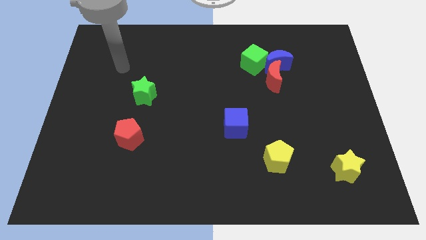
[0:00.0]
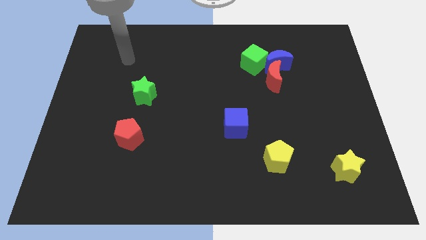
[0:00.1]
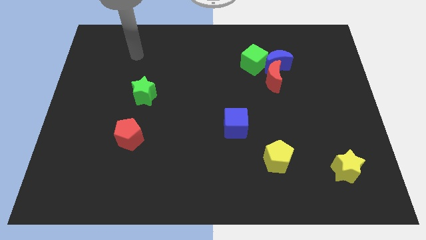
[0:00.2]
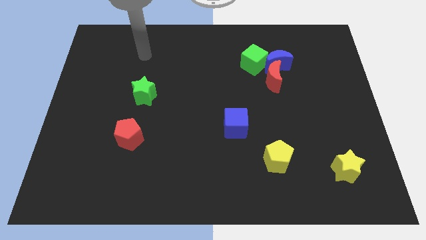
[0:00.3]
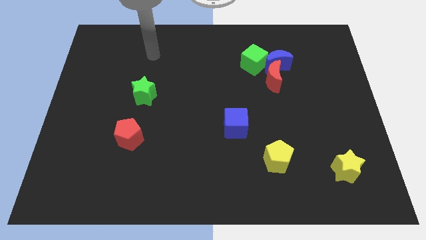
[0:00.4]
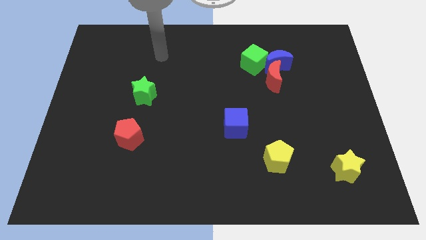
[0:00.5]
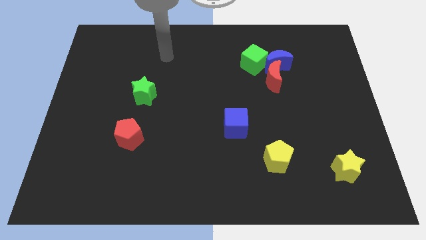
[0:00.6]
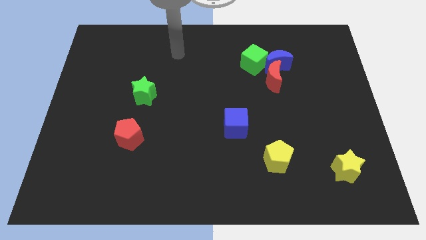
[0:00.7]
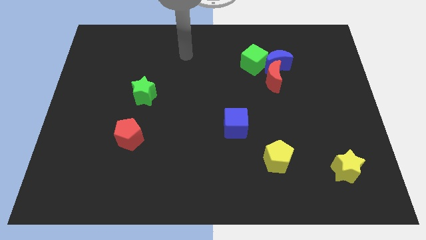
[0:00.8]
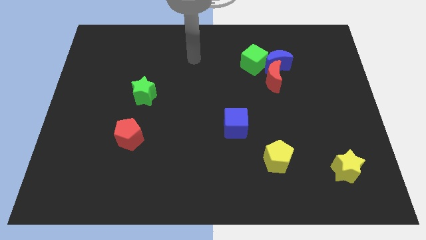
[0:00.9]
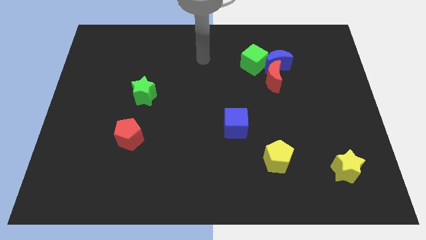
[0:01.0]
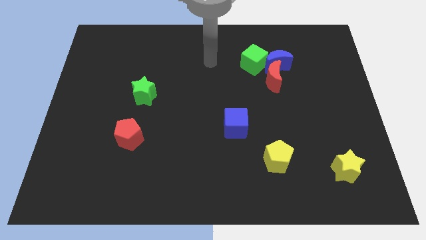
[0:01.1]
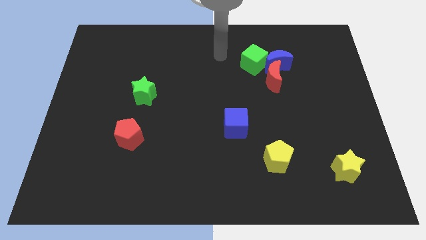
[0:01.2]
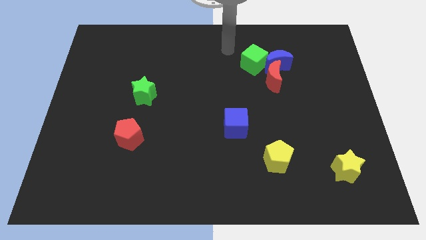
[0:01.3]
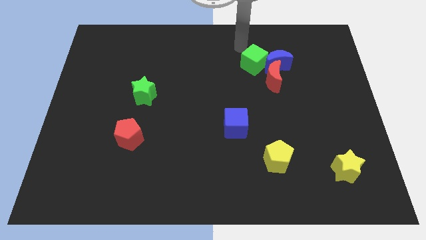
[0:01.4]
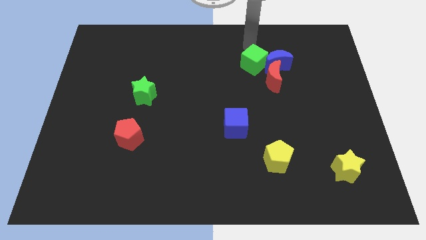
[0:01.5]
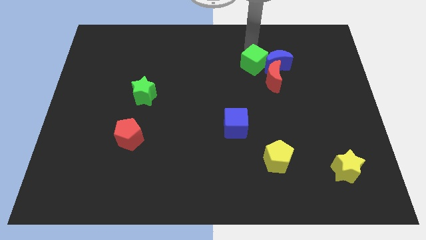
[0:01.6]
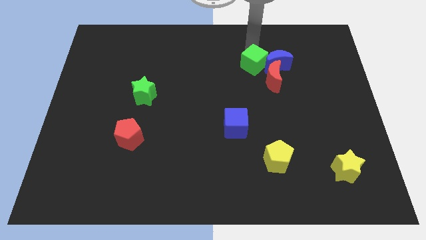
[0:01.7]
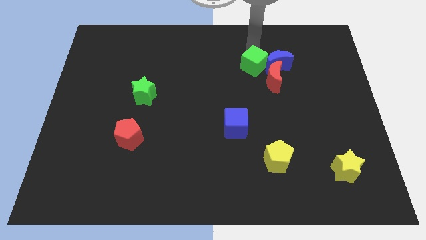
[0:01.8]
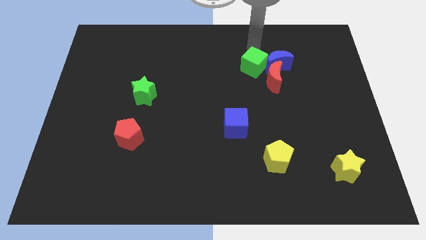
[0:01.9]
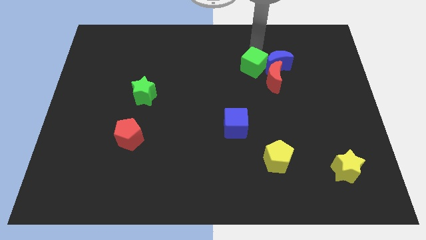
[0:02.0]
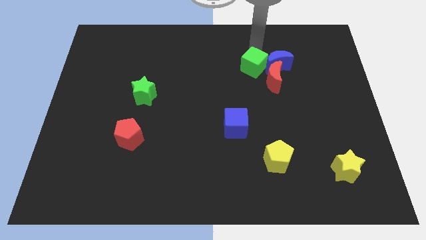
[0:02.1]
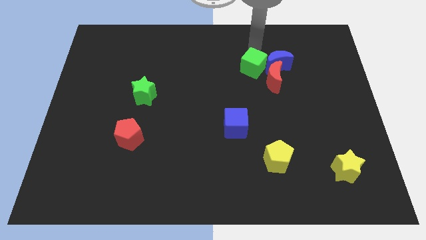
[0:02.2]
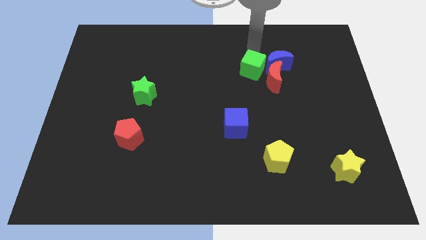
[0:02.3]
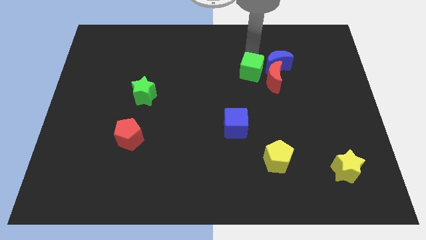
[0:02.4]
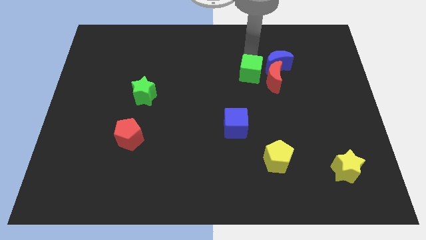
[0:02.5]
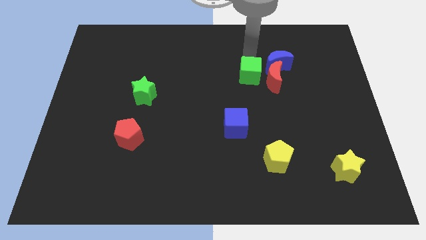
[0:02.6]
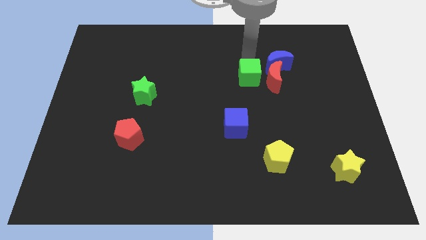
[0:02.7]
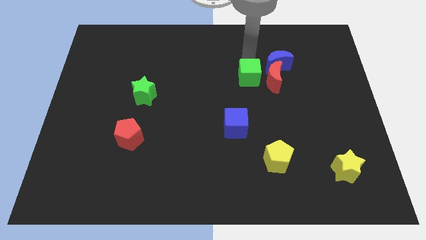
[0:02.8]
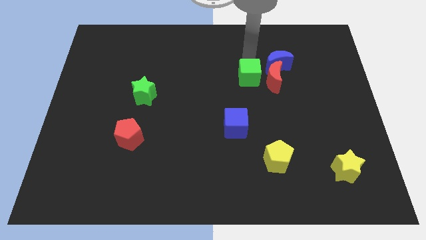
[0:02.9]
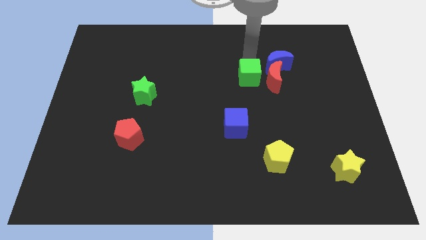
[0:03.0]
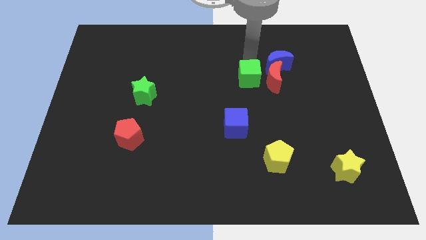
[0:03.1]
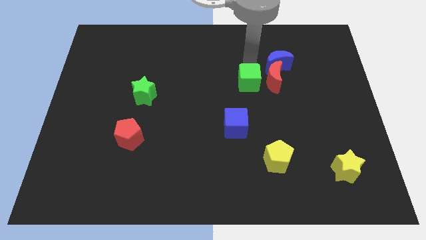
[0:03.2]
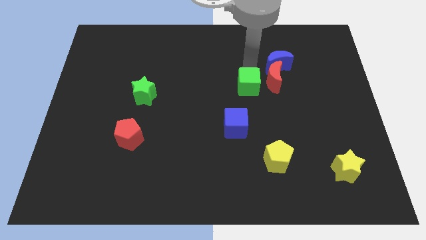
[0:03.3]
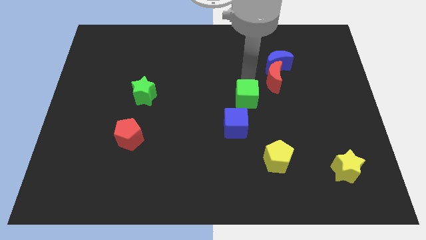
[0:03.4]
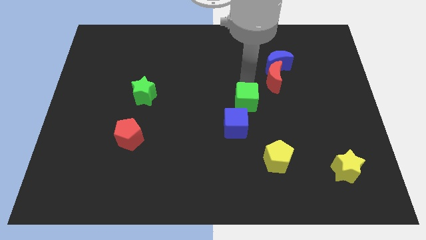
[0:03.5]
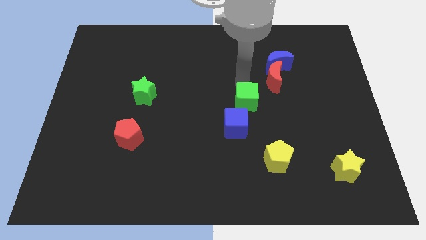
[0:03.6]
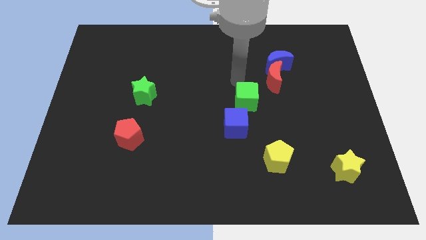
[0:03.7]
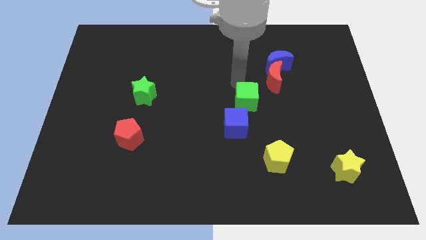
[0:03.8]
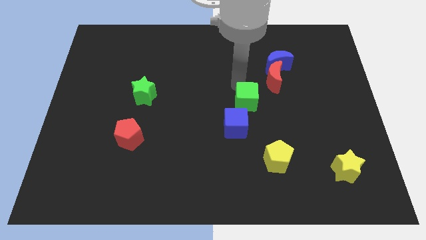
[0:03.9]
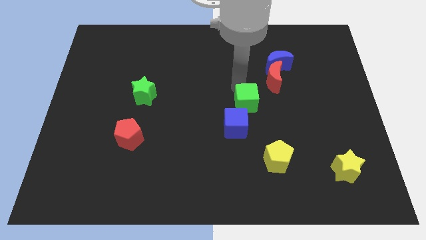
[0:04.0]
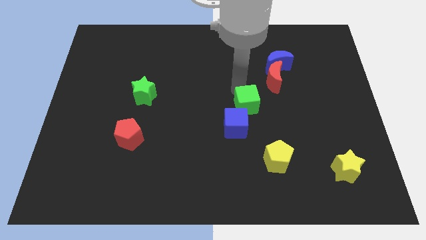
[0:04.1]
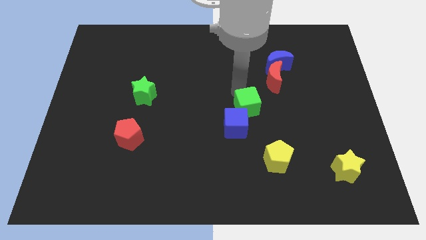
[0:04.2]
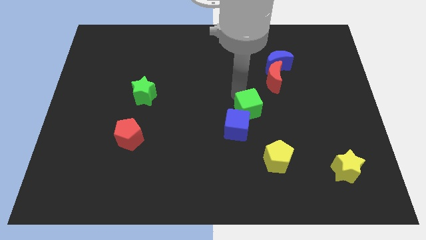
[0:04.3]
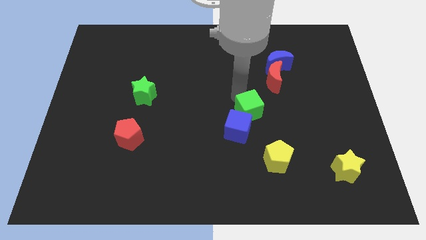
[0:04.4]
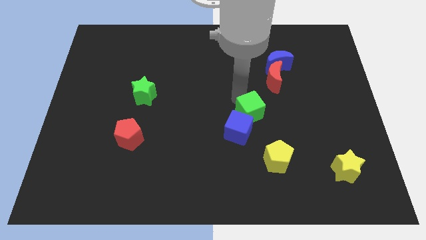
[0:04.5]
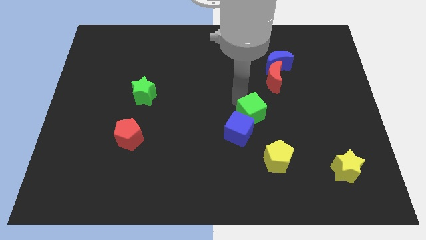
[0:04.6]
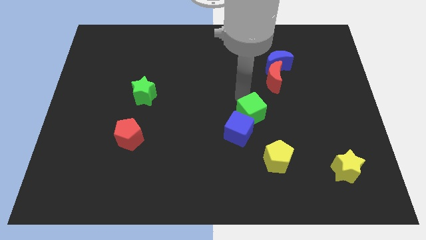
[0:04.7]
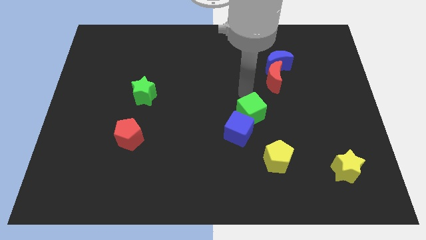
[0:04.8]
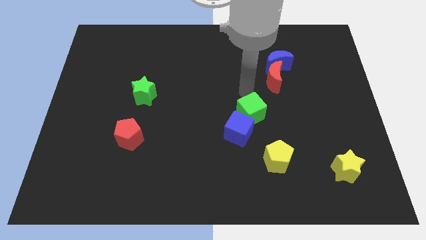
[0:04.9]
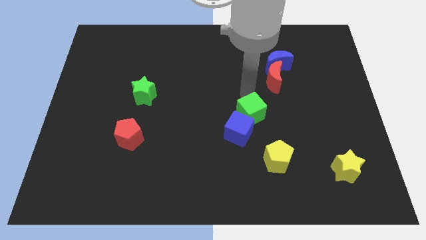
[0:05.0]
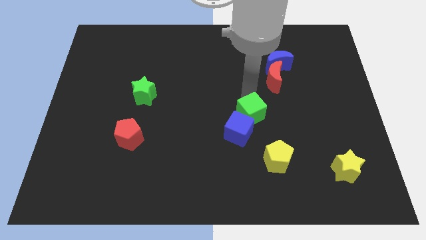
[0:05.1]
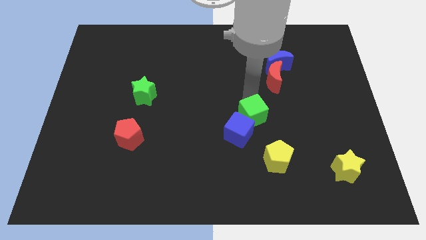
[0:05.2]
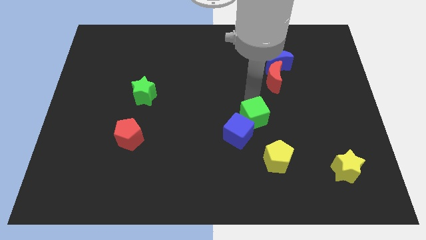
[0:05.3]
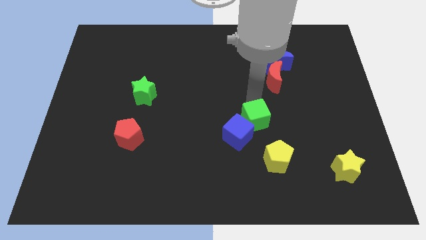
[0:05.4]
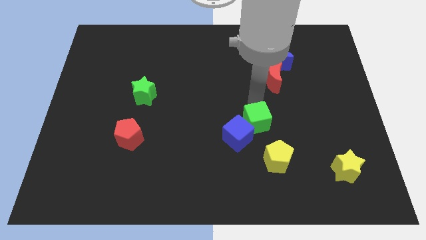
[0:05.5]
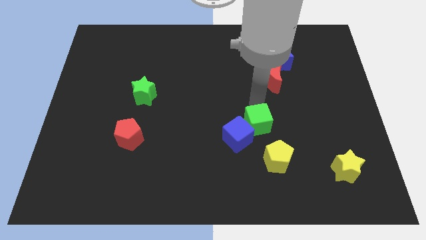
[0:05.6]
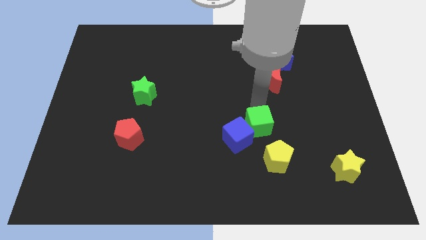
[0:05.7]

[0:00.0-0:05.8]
move the green cube down

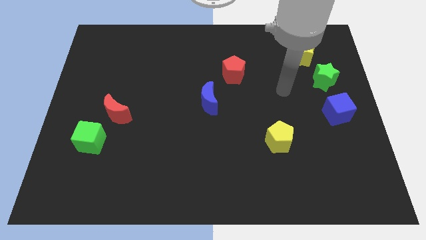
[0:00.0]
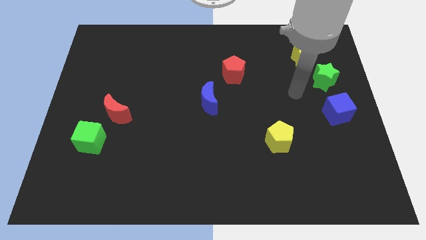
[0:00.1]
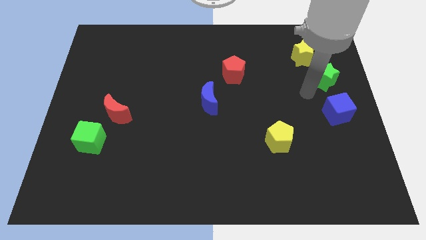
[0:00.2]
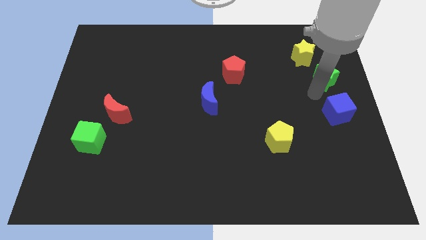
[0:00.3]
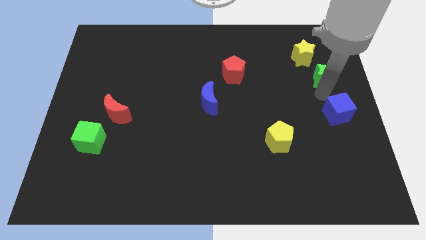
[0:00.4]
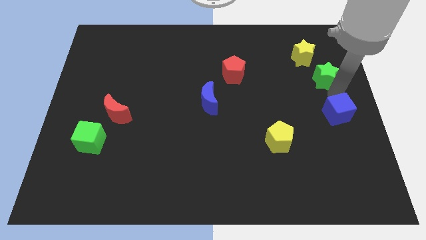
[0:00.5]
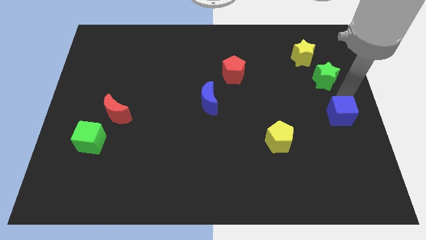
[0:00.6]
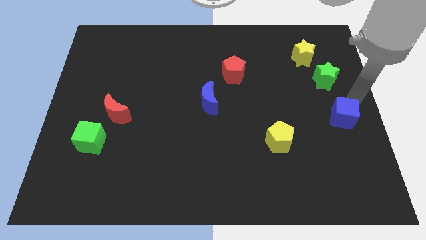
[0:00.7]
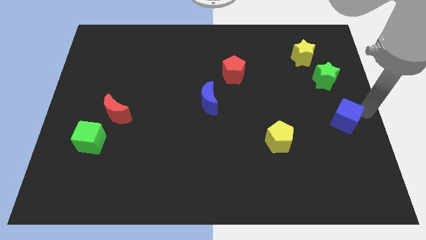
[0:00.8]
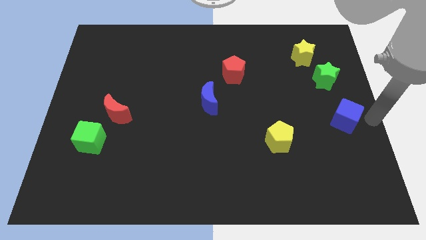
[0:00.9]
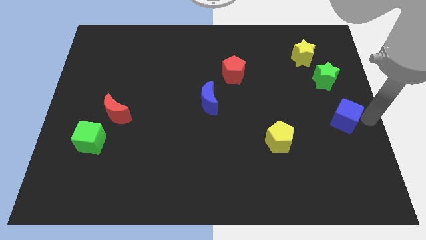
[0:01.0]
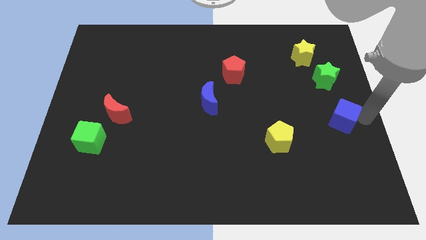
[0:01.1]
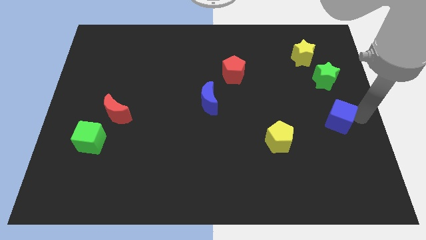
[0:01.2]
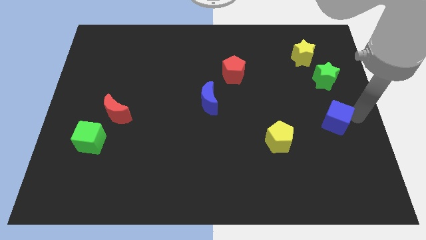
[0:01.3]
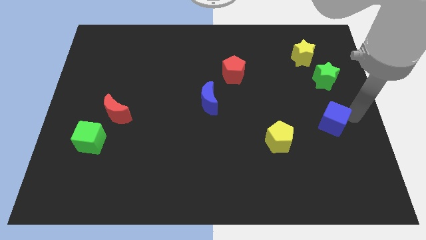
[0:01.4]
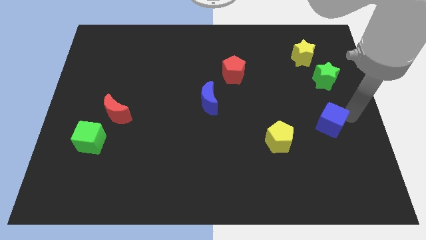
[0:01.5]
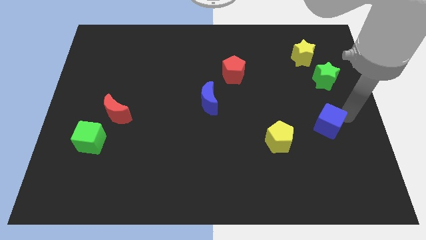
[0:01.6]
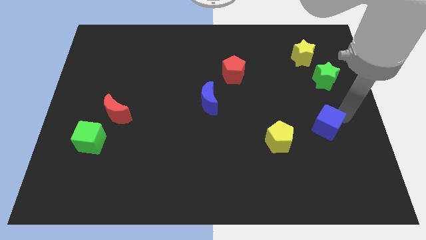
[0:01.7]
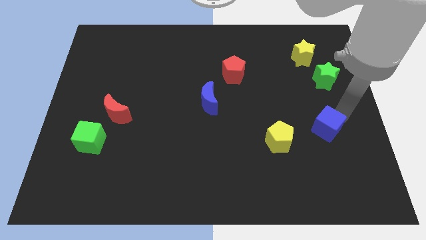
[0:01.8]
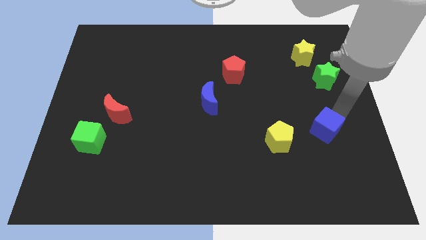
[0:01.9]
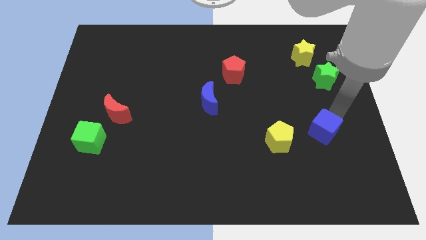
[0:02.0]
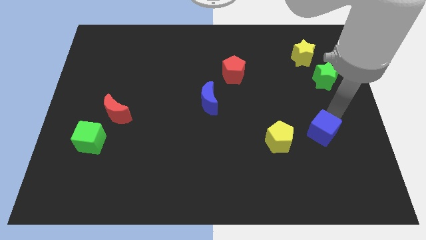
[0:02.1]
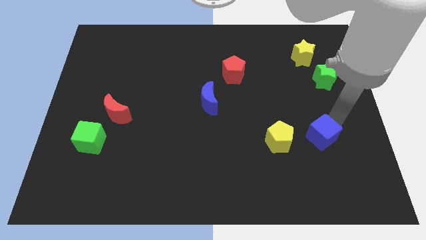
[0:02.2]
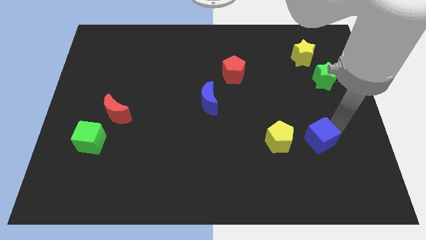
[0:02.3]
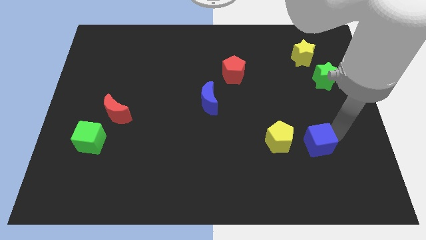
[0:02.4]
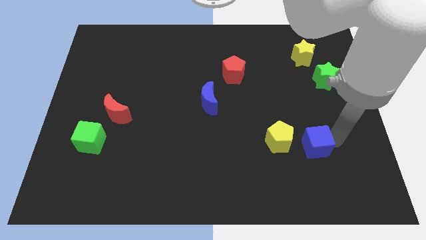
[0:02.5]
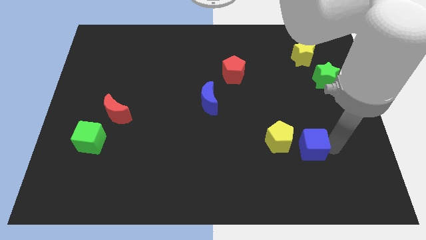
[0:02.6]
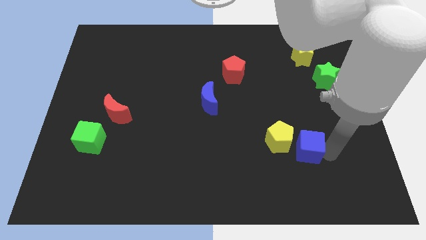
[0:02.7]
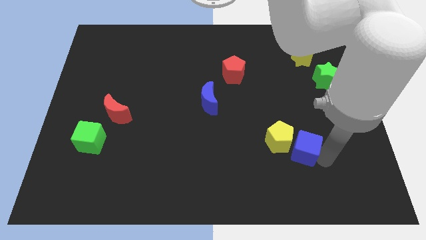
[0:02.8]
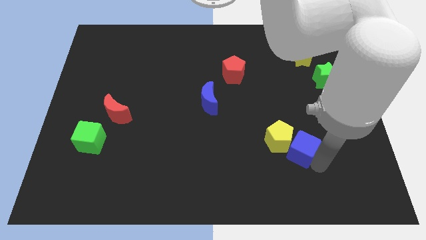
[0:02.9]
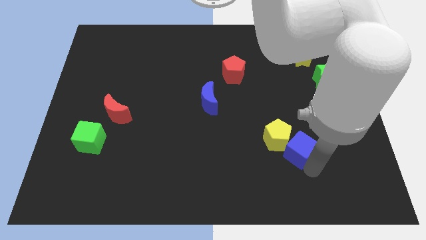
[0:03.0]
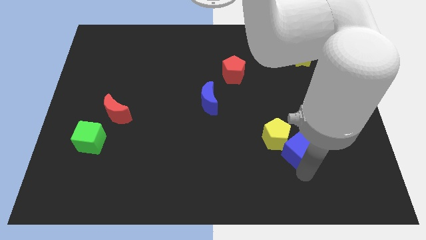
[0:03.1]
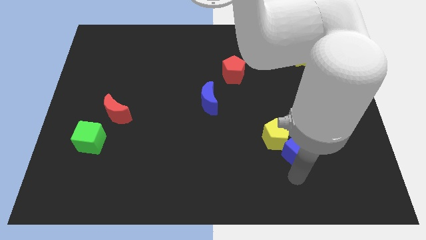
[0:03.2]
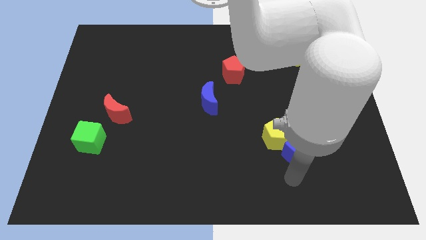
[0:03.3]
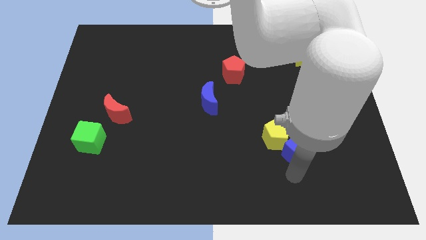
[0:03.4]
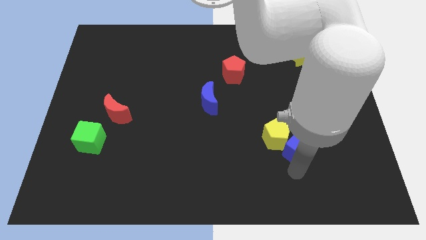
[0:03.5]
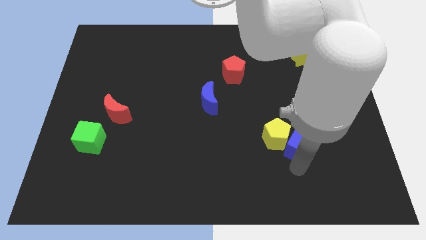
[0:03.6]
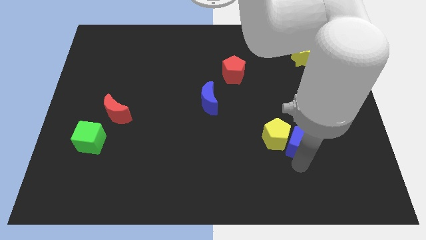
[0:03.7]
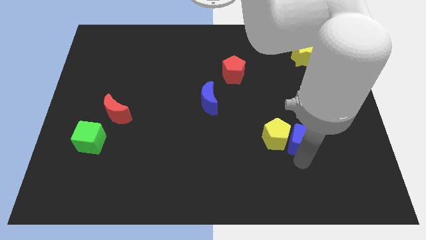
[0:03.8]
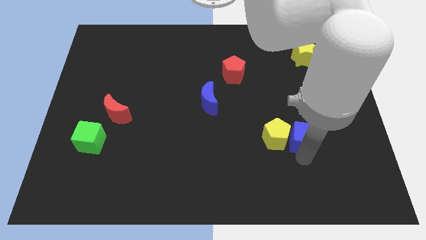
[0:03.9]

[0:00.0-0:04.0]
move the blue cube a bit left
